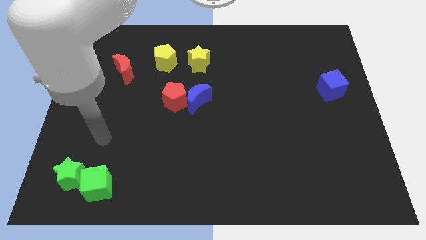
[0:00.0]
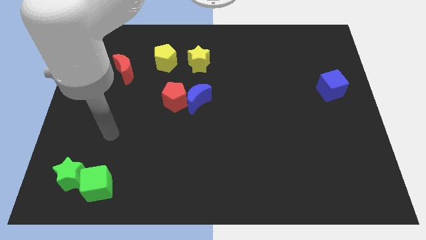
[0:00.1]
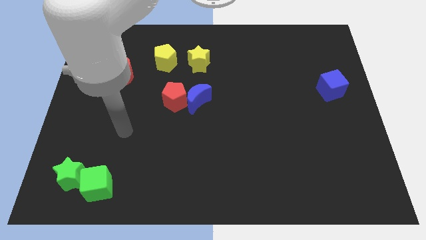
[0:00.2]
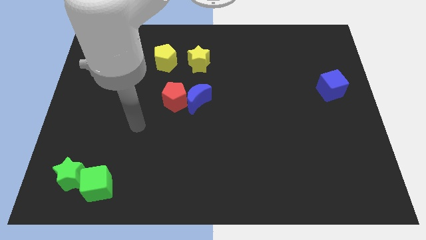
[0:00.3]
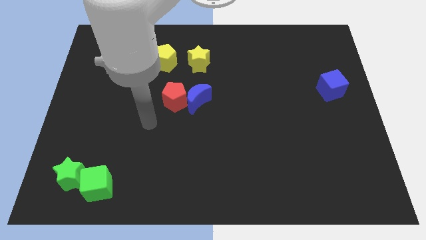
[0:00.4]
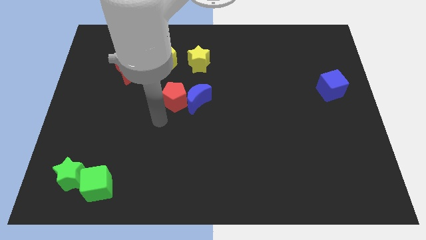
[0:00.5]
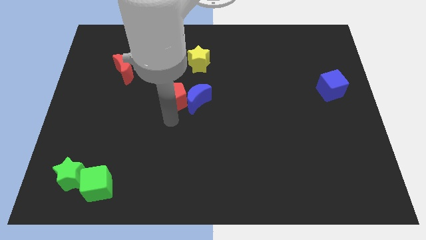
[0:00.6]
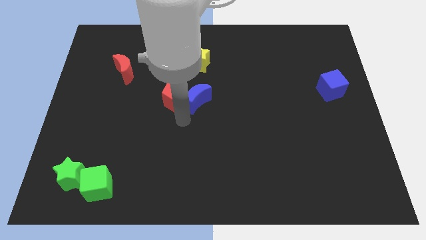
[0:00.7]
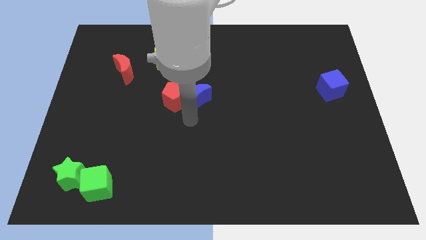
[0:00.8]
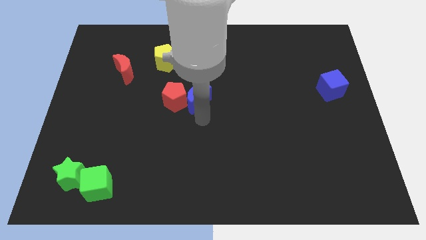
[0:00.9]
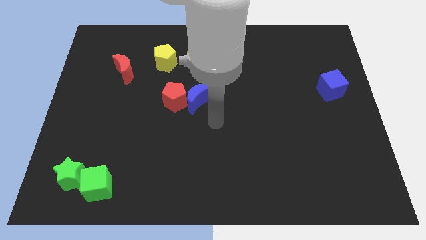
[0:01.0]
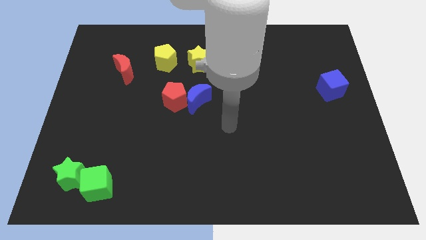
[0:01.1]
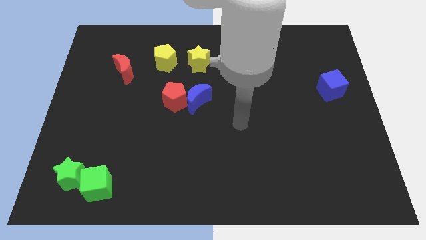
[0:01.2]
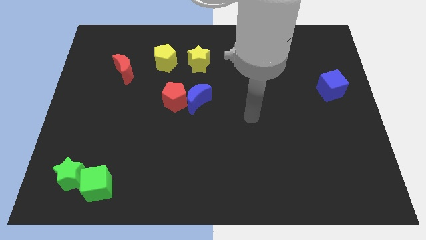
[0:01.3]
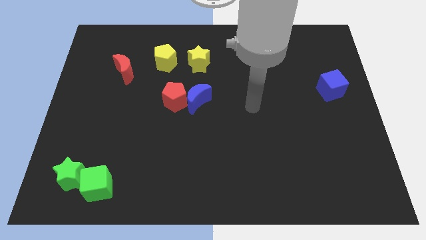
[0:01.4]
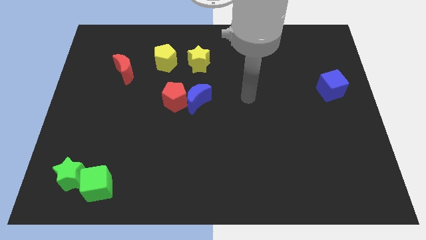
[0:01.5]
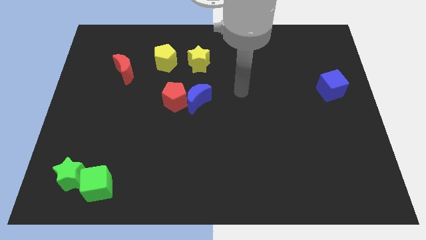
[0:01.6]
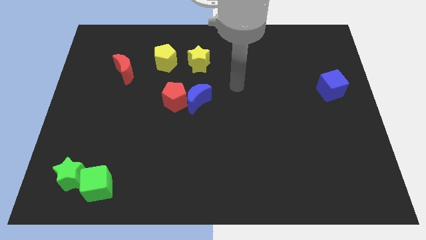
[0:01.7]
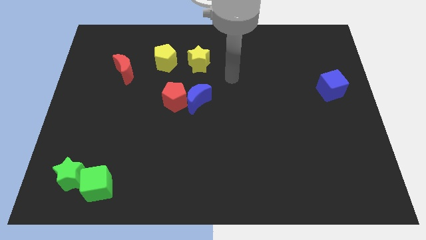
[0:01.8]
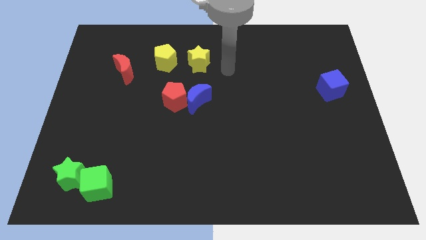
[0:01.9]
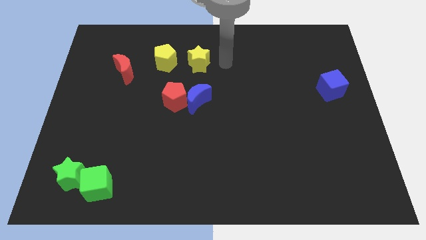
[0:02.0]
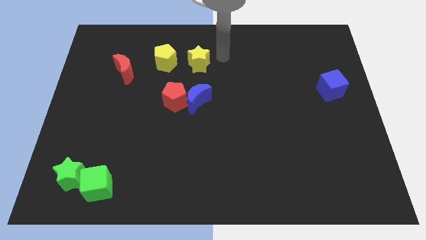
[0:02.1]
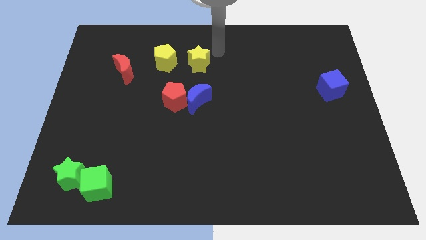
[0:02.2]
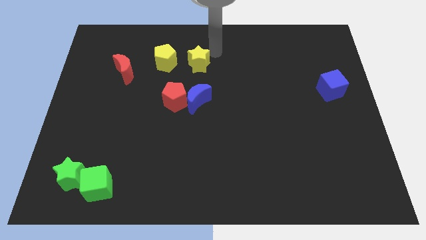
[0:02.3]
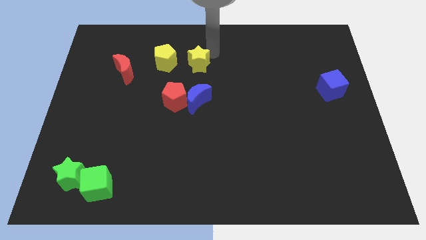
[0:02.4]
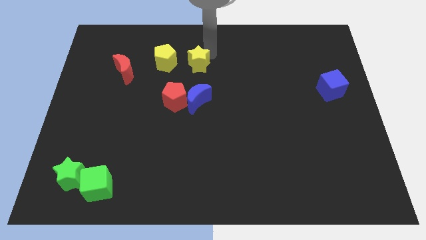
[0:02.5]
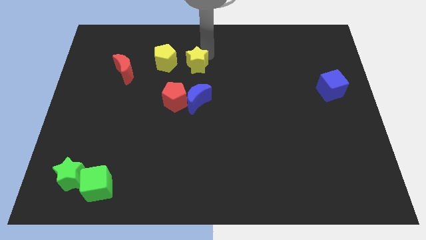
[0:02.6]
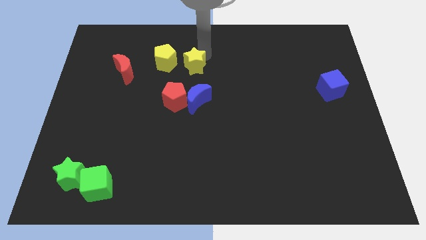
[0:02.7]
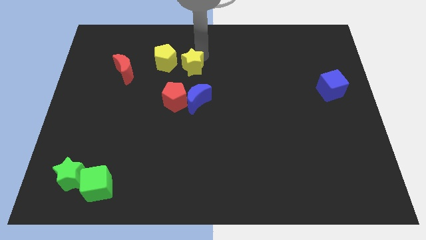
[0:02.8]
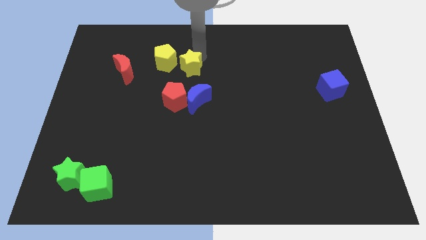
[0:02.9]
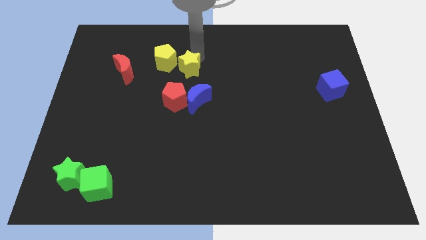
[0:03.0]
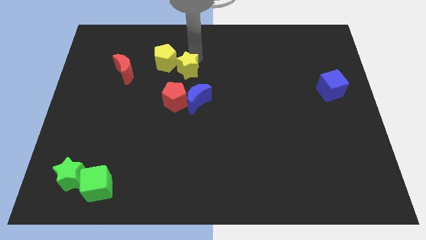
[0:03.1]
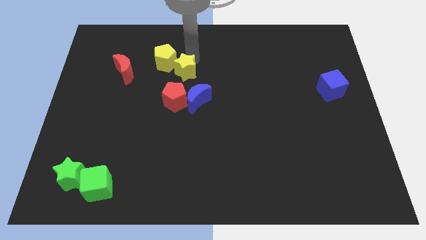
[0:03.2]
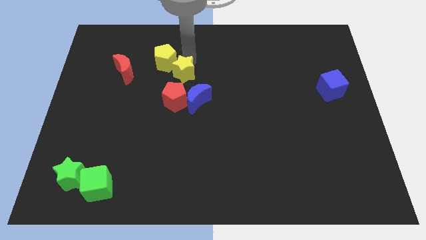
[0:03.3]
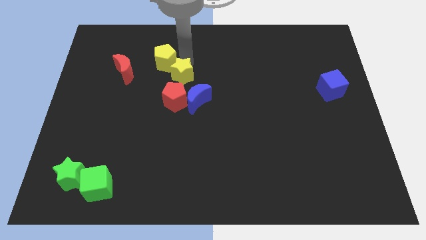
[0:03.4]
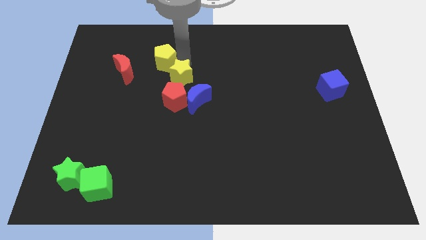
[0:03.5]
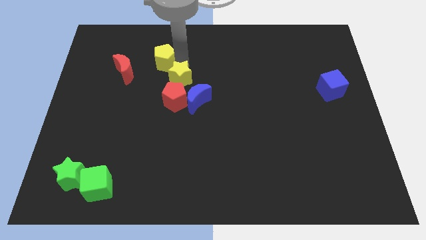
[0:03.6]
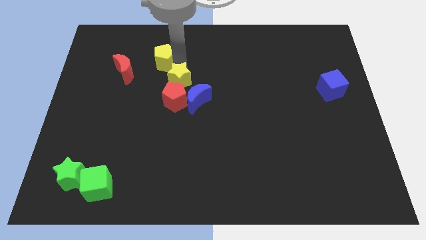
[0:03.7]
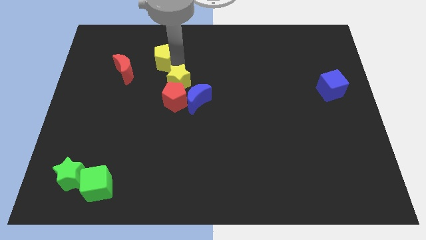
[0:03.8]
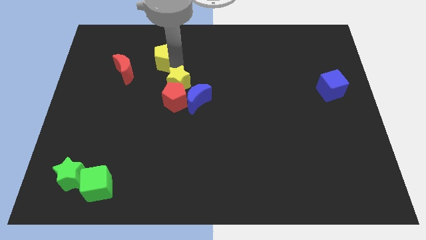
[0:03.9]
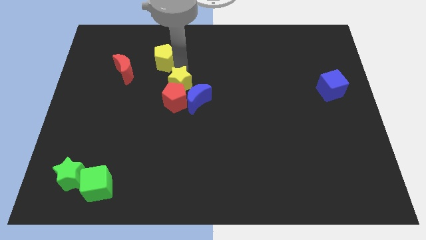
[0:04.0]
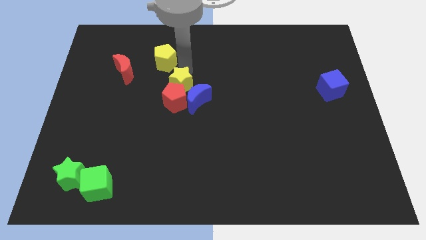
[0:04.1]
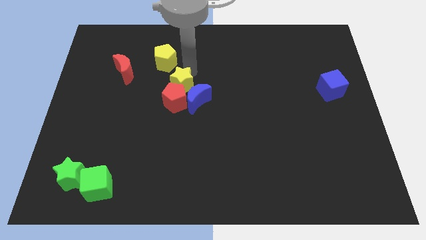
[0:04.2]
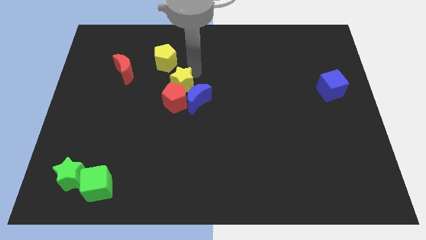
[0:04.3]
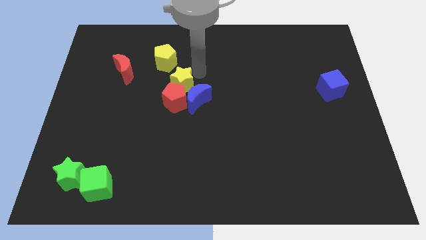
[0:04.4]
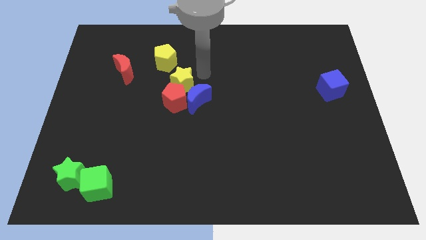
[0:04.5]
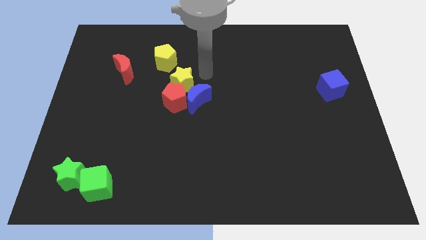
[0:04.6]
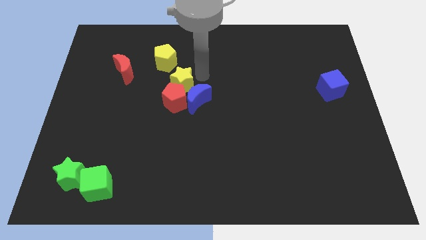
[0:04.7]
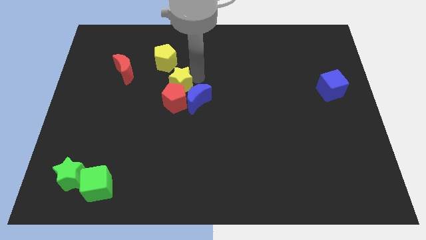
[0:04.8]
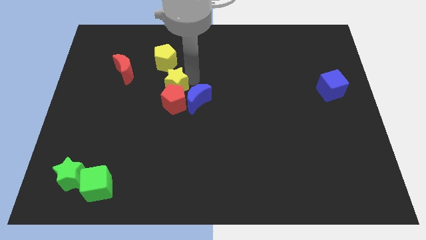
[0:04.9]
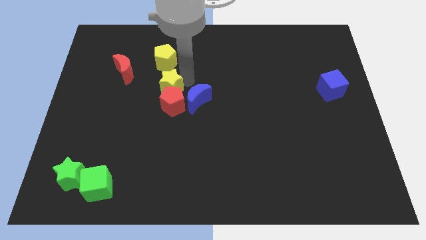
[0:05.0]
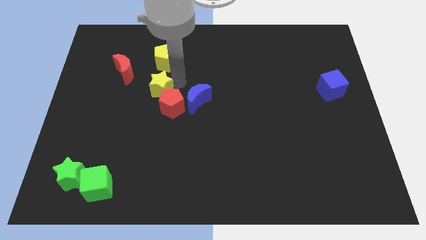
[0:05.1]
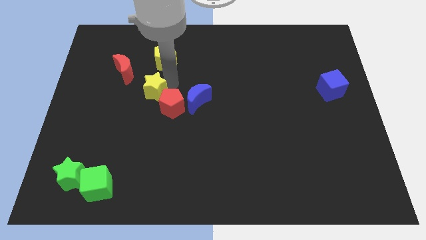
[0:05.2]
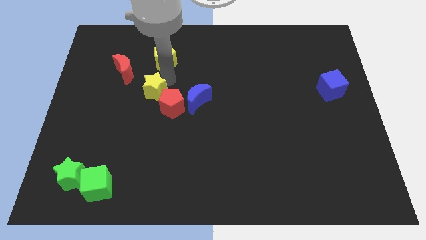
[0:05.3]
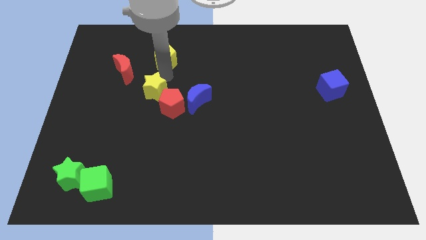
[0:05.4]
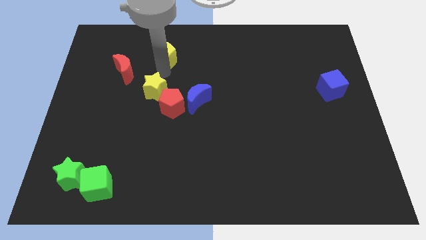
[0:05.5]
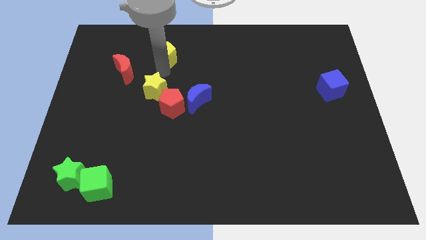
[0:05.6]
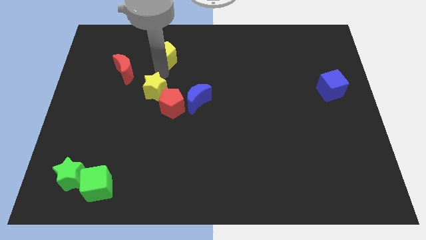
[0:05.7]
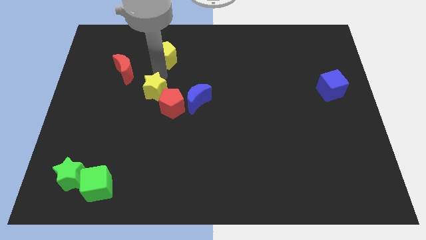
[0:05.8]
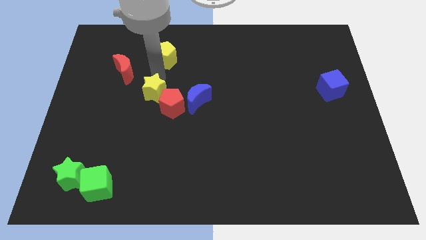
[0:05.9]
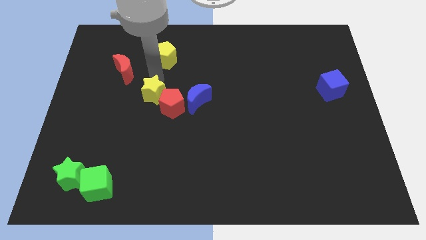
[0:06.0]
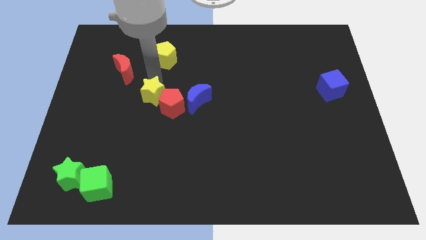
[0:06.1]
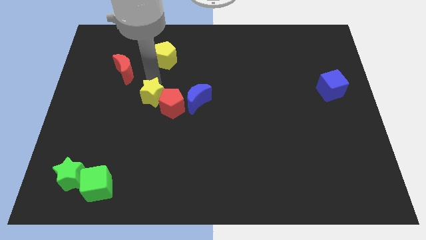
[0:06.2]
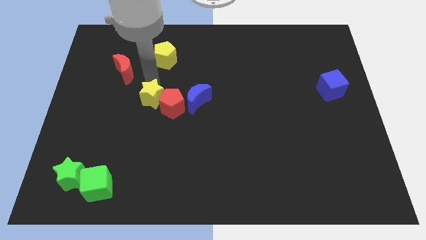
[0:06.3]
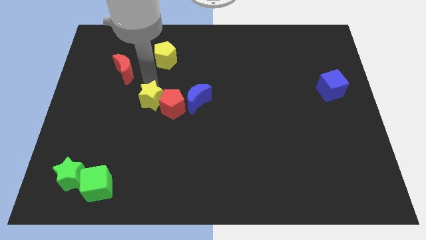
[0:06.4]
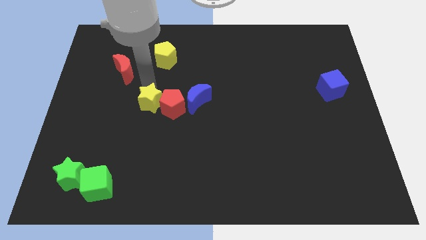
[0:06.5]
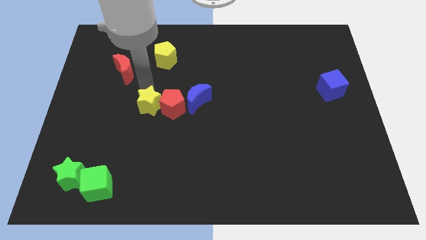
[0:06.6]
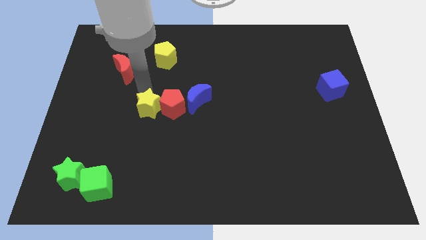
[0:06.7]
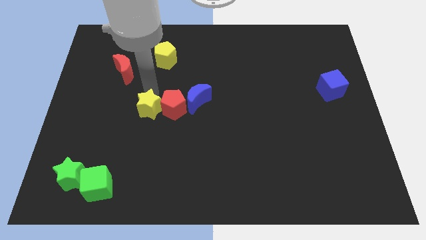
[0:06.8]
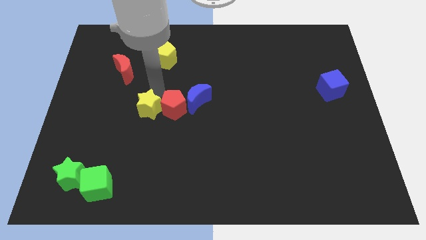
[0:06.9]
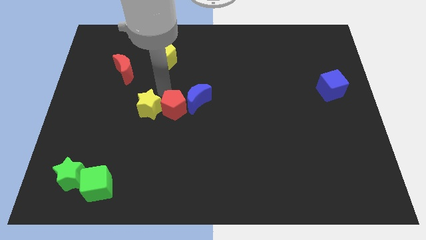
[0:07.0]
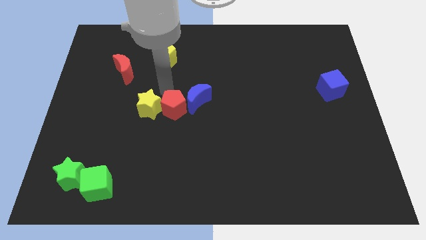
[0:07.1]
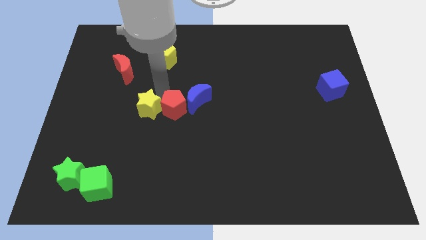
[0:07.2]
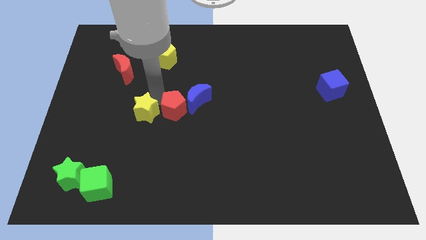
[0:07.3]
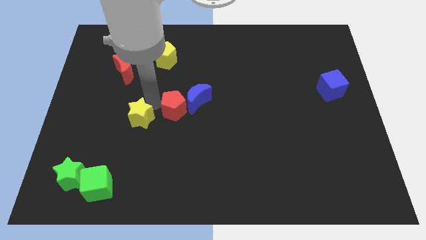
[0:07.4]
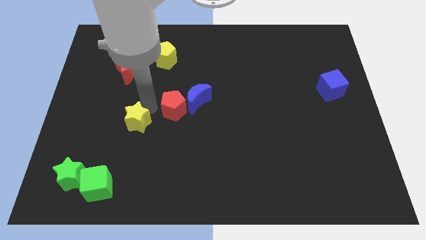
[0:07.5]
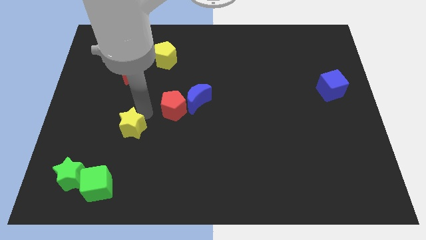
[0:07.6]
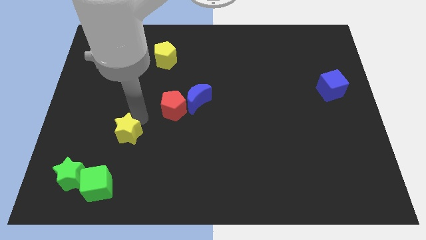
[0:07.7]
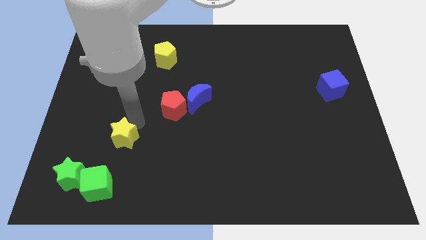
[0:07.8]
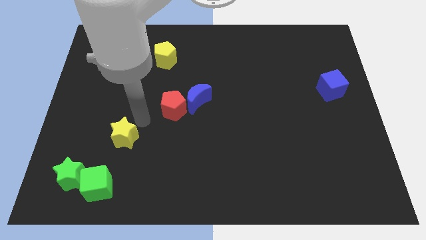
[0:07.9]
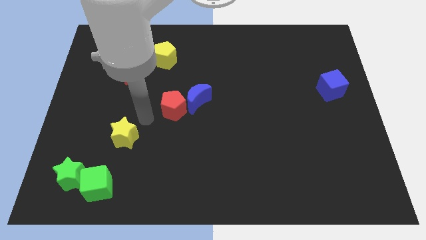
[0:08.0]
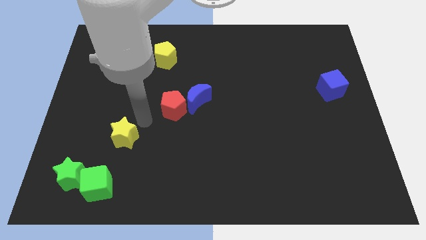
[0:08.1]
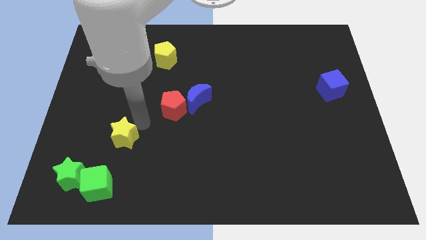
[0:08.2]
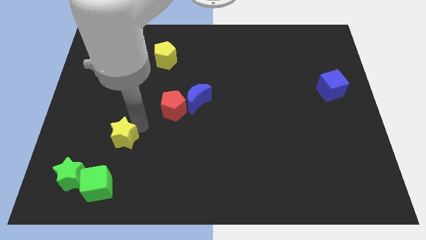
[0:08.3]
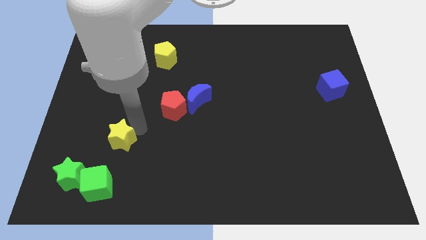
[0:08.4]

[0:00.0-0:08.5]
slide the yellow star diagonally up and to the right of the green star
